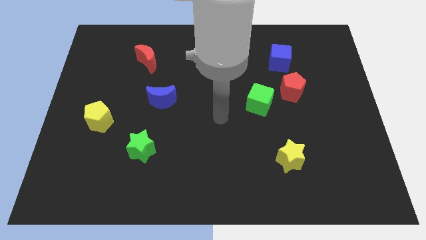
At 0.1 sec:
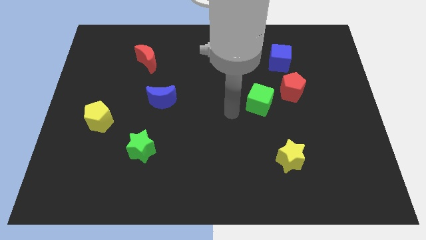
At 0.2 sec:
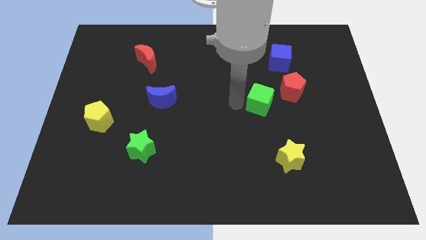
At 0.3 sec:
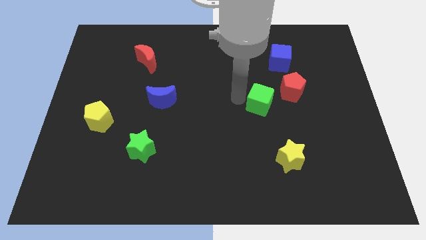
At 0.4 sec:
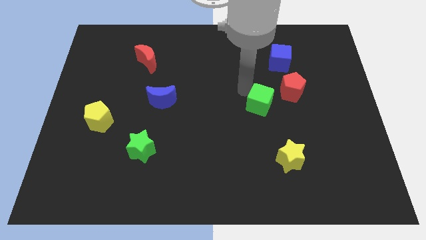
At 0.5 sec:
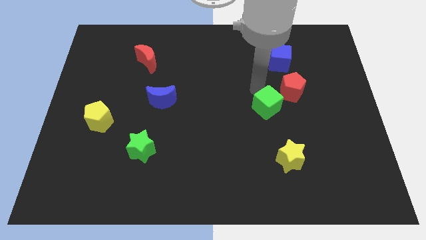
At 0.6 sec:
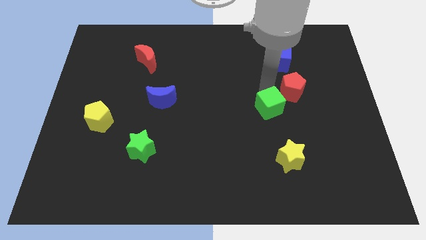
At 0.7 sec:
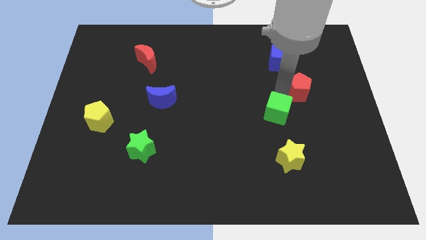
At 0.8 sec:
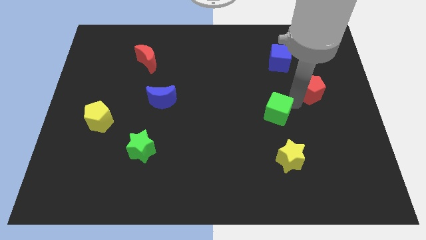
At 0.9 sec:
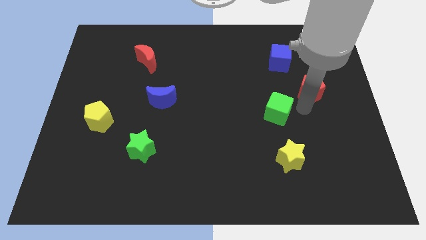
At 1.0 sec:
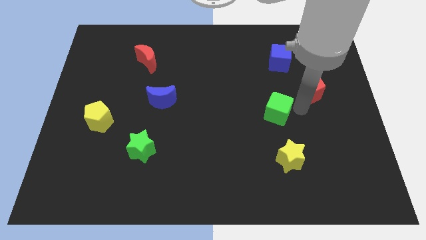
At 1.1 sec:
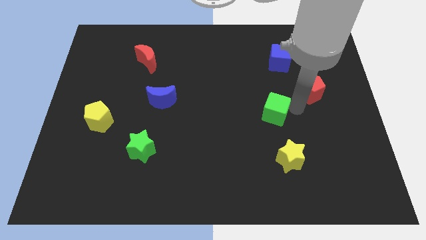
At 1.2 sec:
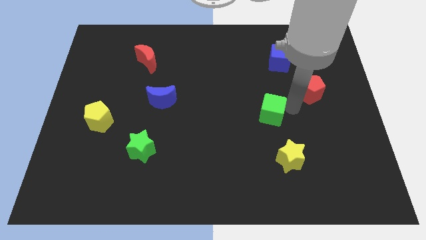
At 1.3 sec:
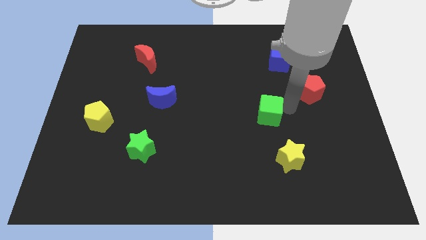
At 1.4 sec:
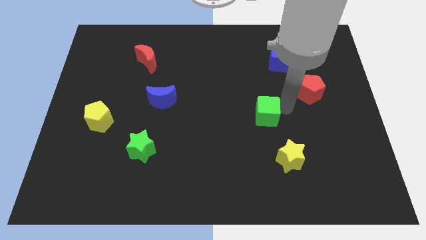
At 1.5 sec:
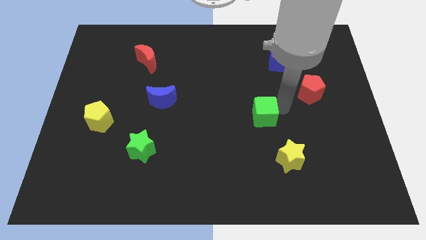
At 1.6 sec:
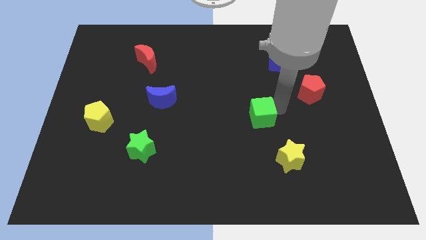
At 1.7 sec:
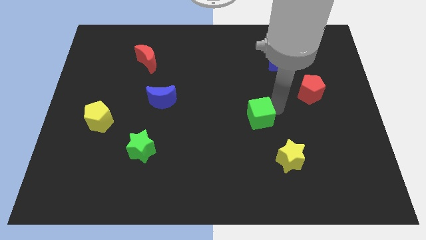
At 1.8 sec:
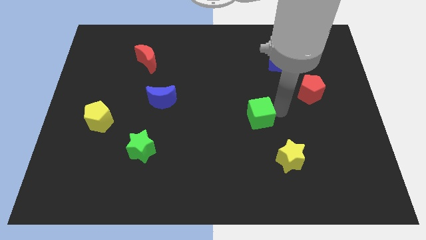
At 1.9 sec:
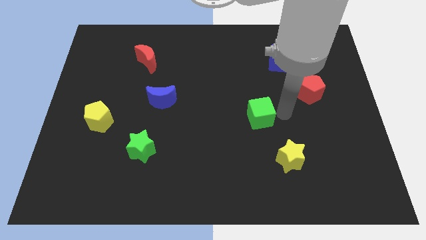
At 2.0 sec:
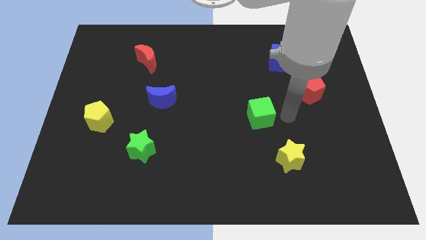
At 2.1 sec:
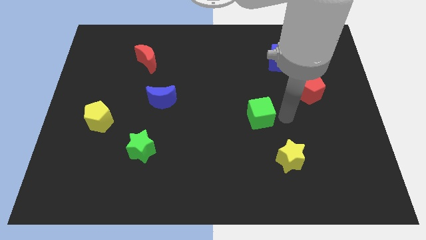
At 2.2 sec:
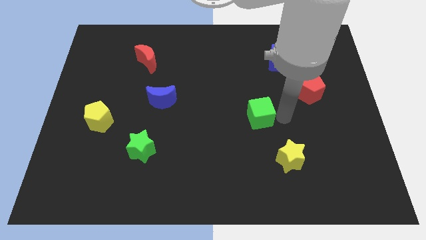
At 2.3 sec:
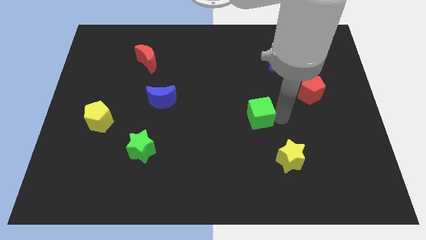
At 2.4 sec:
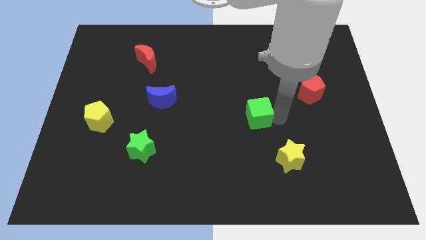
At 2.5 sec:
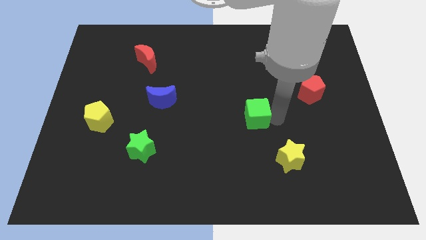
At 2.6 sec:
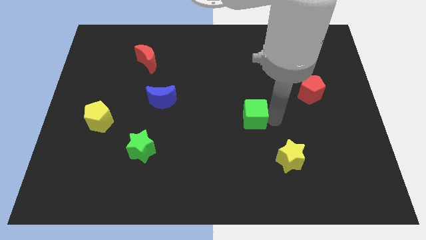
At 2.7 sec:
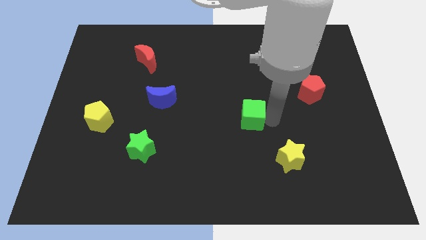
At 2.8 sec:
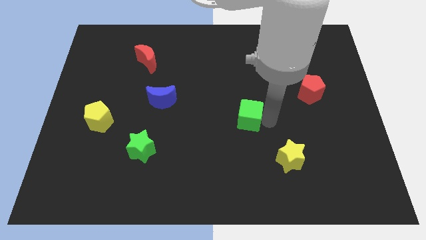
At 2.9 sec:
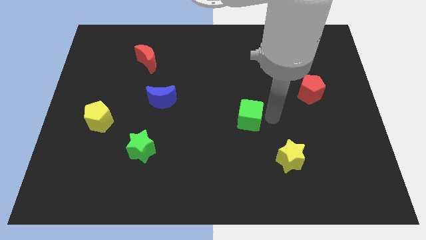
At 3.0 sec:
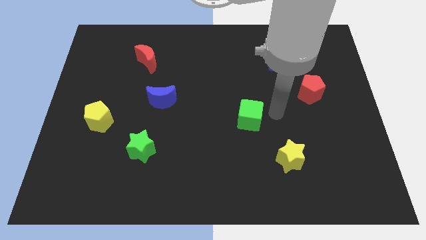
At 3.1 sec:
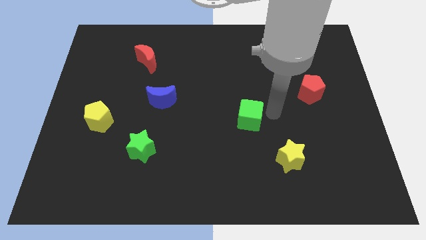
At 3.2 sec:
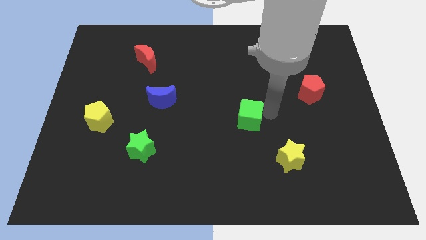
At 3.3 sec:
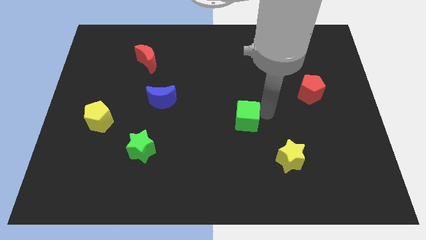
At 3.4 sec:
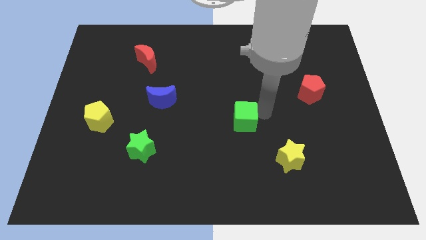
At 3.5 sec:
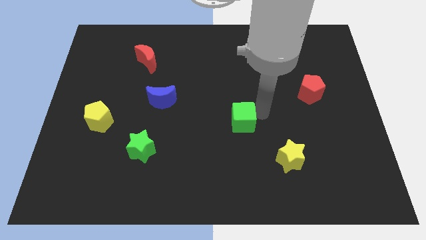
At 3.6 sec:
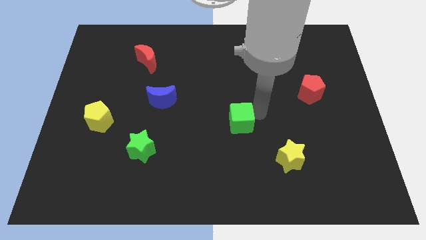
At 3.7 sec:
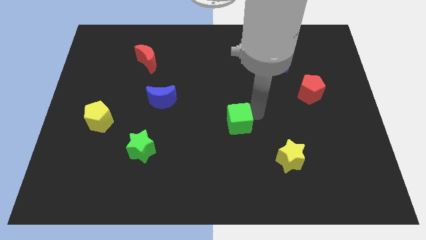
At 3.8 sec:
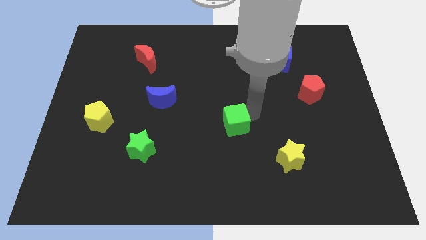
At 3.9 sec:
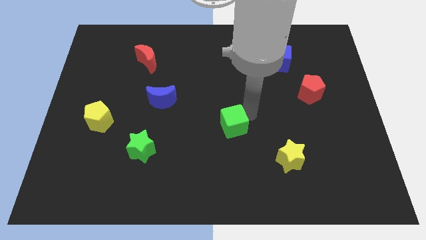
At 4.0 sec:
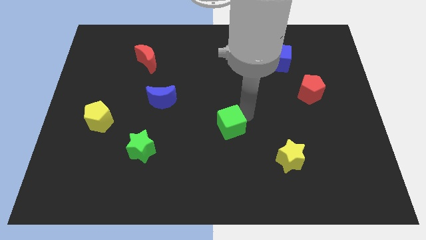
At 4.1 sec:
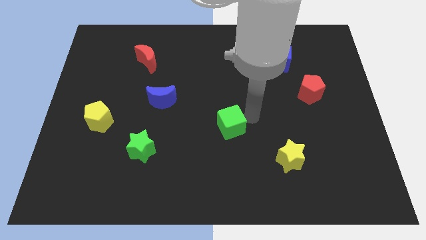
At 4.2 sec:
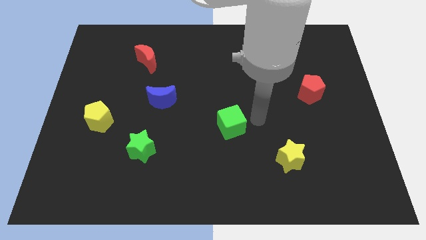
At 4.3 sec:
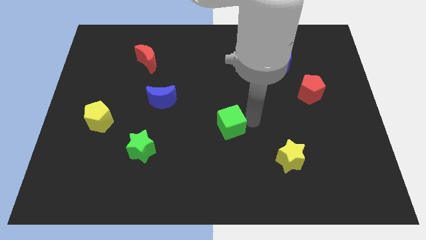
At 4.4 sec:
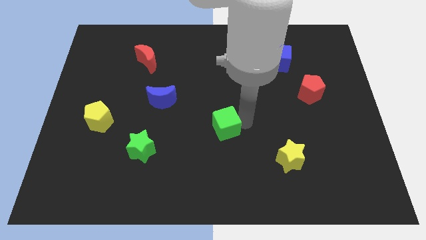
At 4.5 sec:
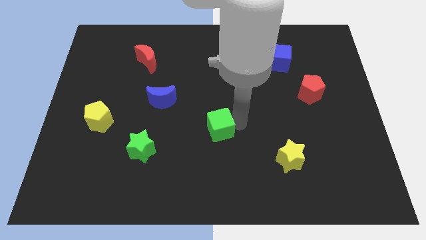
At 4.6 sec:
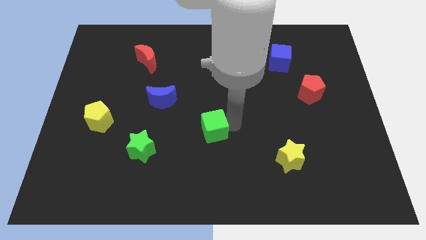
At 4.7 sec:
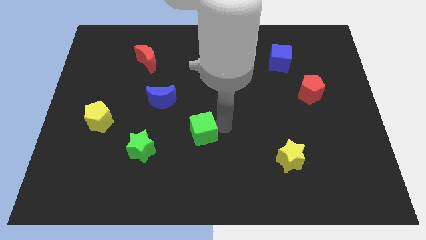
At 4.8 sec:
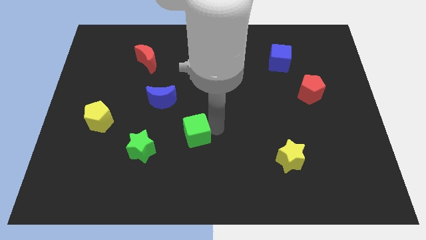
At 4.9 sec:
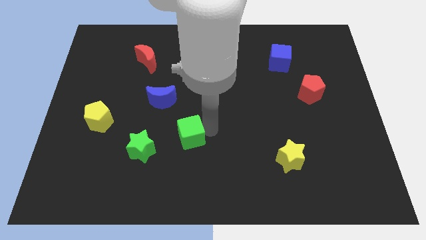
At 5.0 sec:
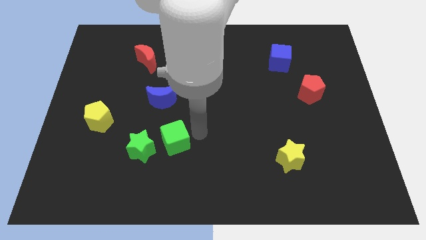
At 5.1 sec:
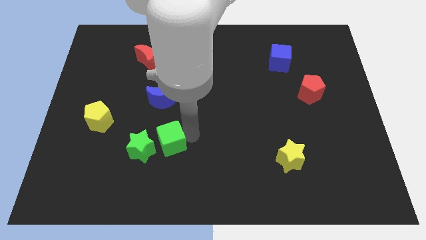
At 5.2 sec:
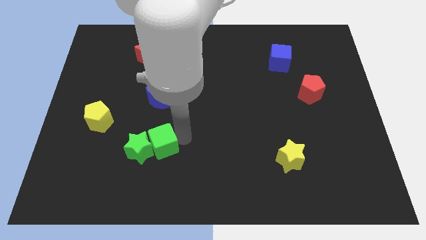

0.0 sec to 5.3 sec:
push the green cube next to the green star

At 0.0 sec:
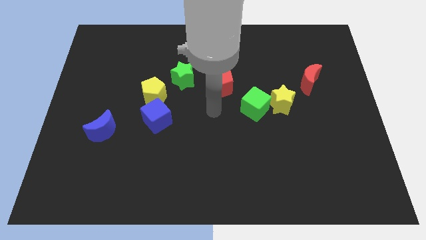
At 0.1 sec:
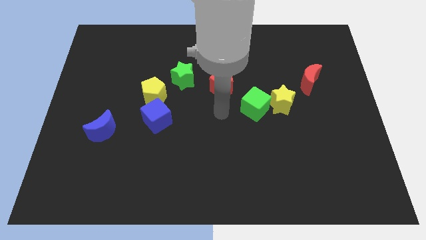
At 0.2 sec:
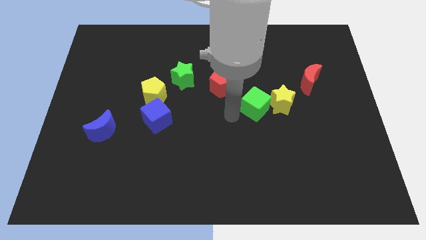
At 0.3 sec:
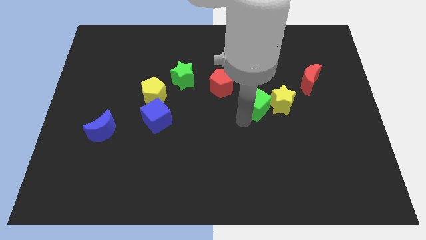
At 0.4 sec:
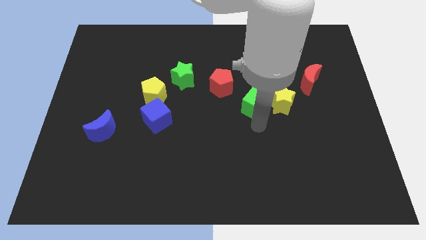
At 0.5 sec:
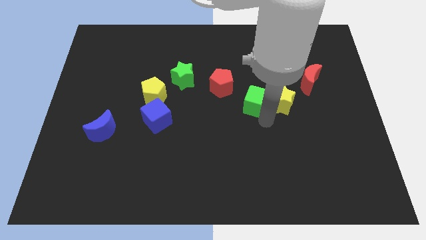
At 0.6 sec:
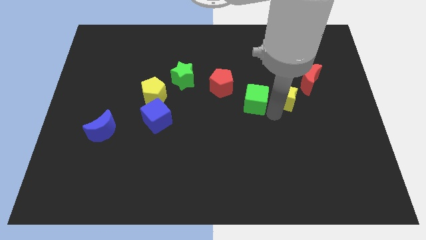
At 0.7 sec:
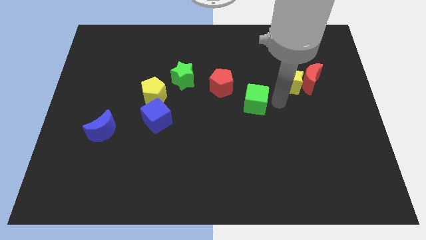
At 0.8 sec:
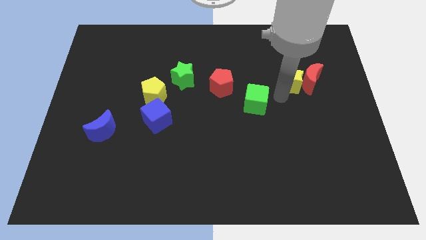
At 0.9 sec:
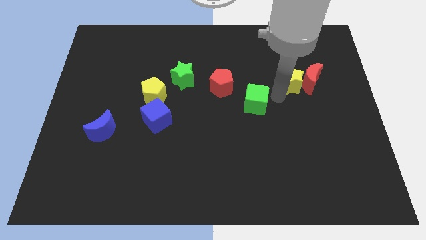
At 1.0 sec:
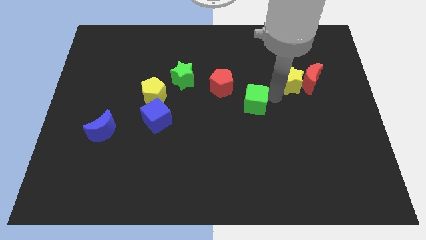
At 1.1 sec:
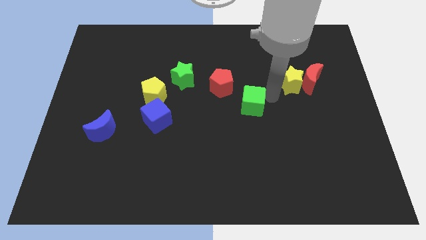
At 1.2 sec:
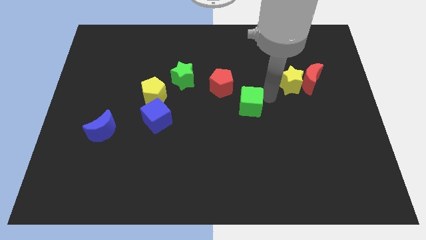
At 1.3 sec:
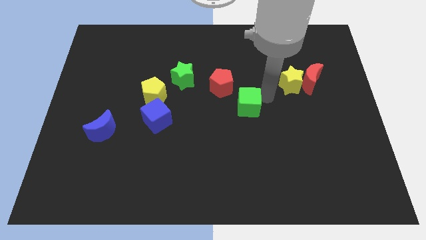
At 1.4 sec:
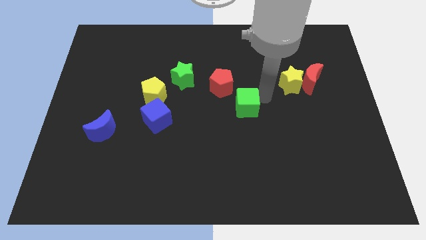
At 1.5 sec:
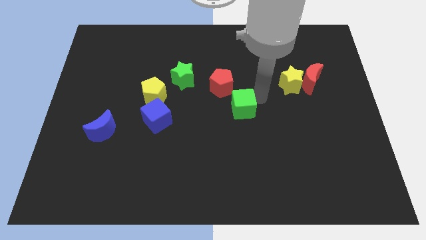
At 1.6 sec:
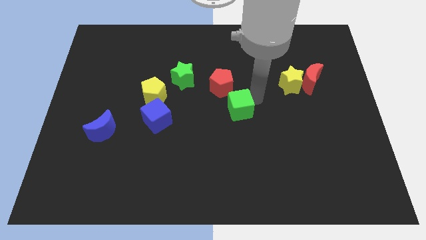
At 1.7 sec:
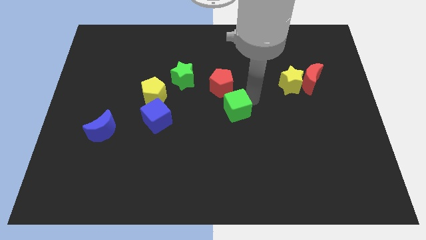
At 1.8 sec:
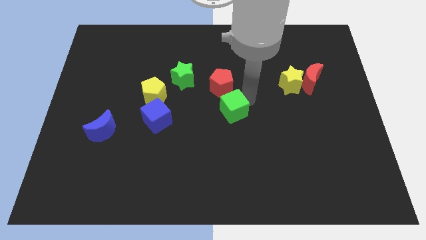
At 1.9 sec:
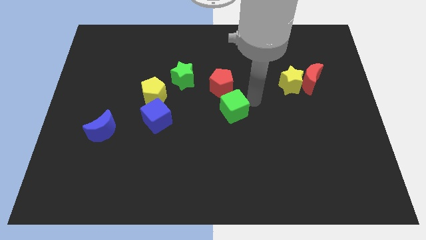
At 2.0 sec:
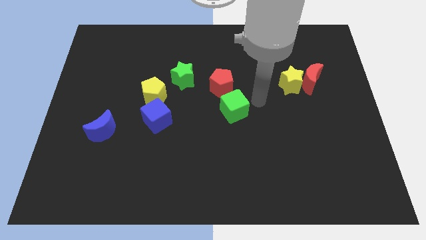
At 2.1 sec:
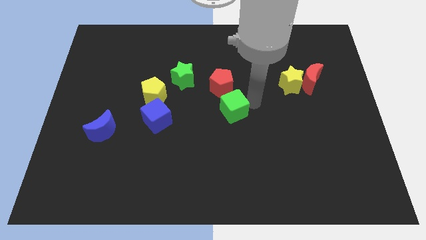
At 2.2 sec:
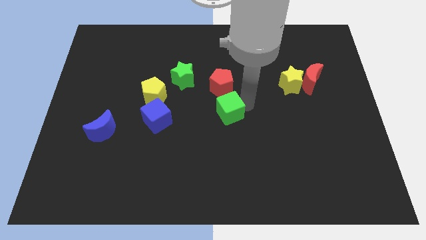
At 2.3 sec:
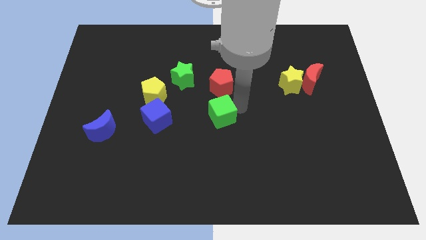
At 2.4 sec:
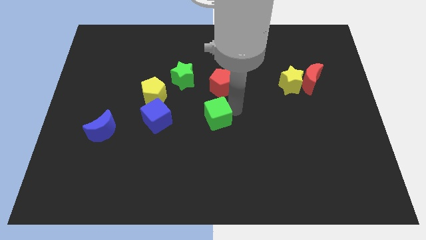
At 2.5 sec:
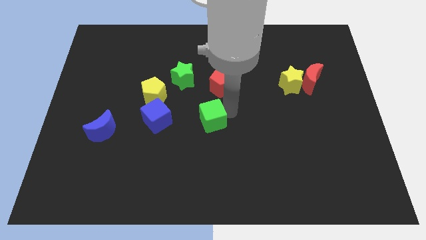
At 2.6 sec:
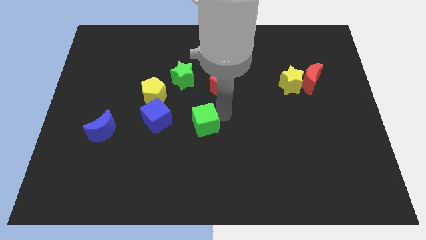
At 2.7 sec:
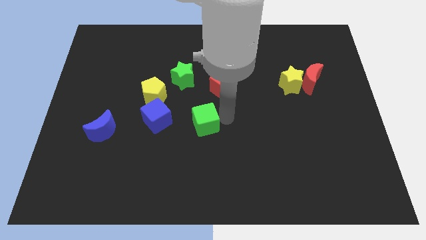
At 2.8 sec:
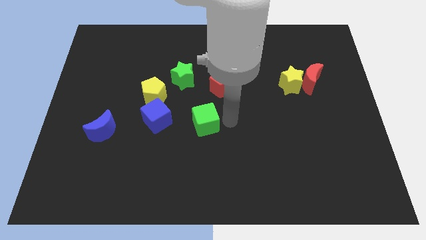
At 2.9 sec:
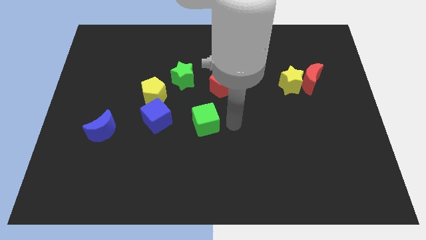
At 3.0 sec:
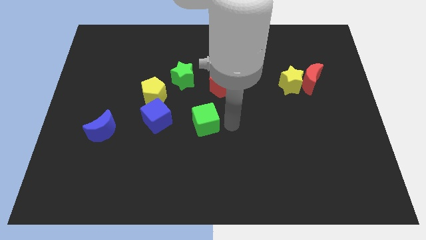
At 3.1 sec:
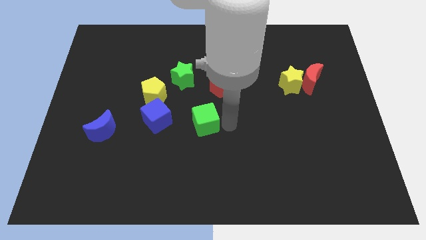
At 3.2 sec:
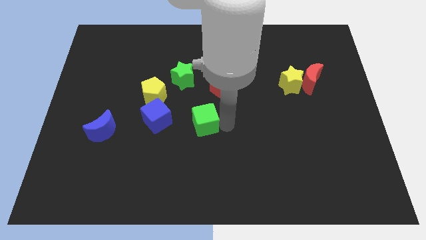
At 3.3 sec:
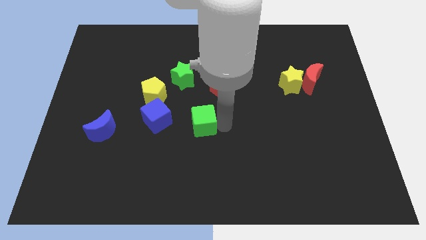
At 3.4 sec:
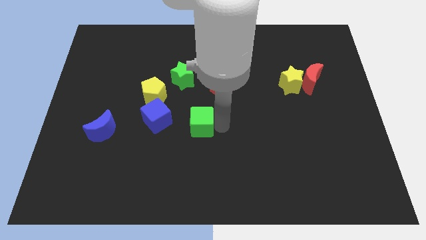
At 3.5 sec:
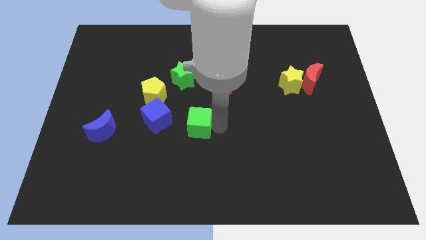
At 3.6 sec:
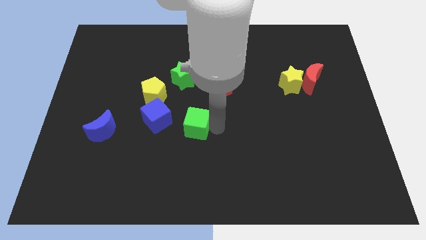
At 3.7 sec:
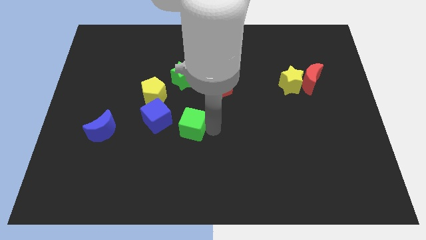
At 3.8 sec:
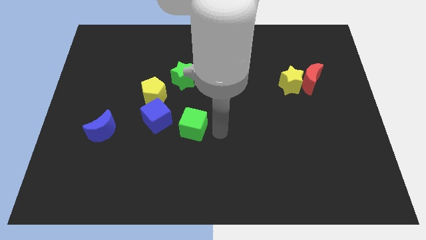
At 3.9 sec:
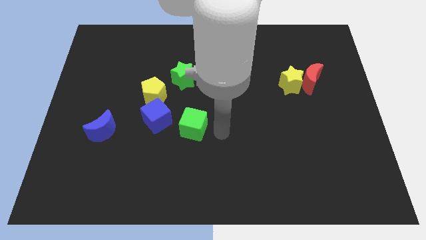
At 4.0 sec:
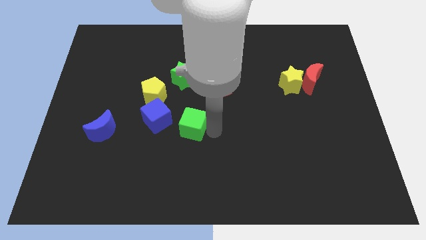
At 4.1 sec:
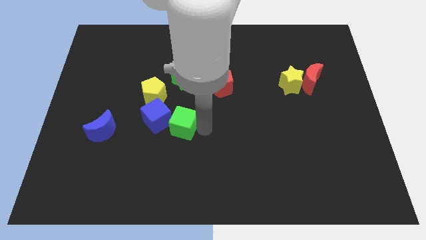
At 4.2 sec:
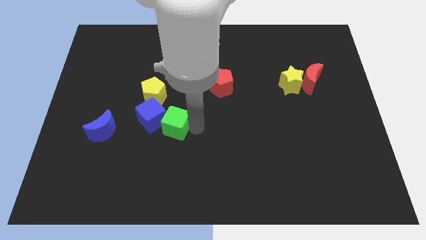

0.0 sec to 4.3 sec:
move the green cube close to the blue cube
